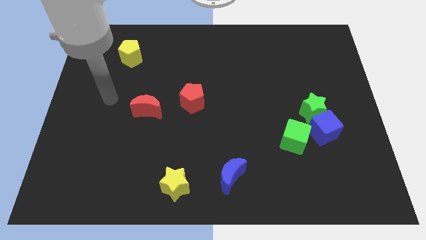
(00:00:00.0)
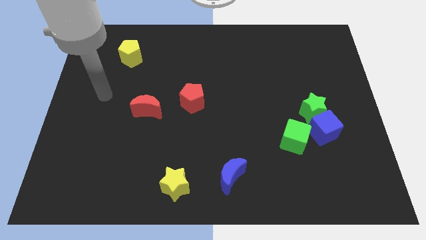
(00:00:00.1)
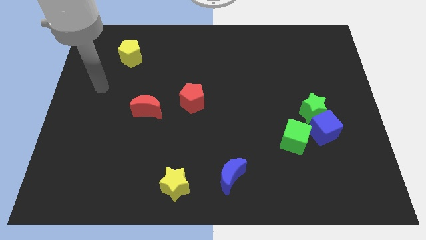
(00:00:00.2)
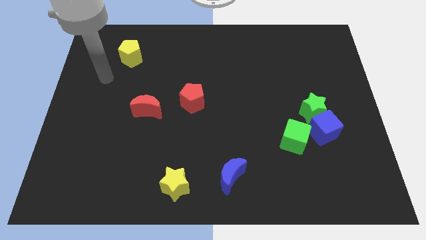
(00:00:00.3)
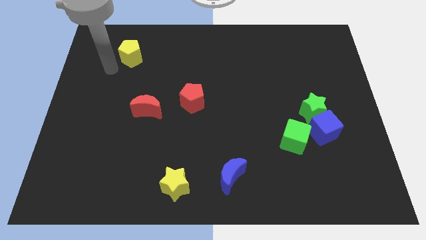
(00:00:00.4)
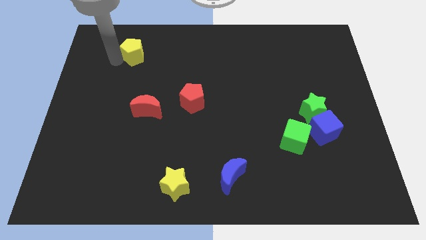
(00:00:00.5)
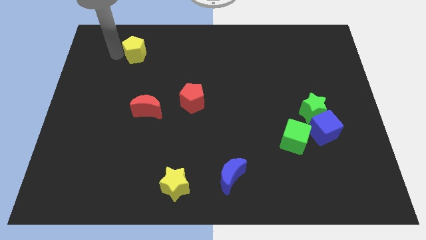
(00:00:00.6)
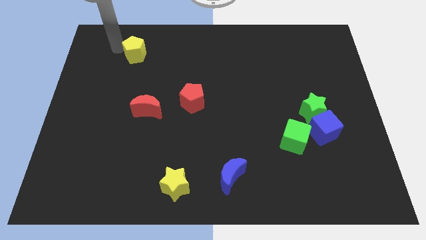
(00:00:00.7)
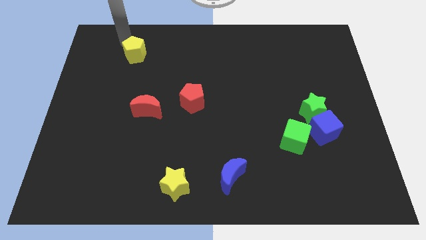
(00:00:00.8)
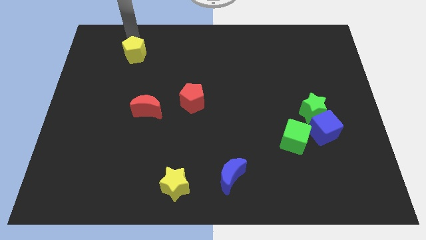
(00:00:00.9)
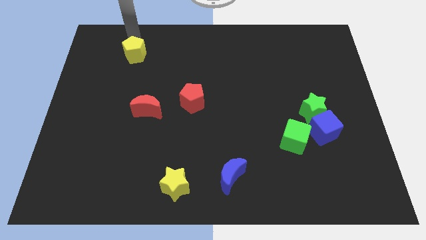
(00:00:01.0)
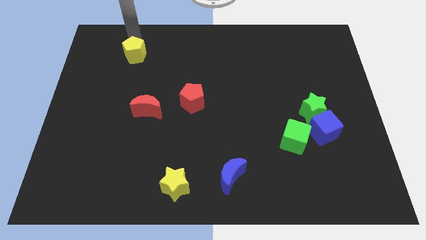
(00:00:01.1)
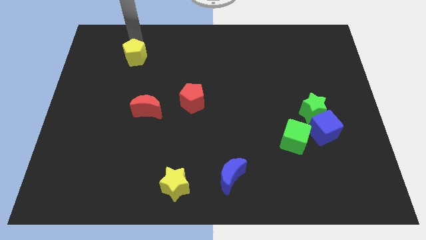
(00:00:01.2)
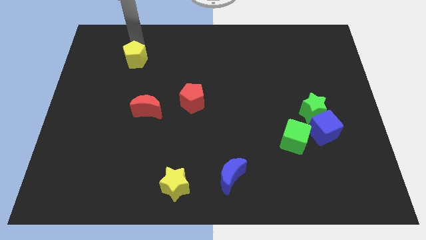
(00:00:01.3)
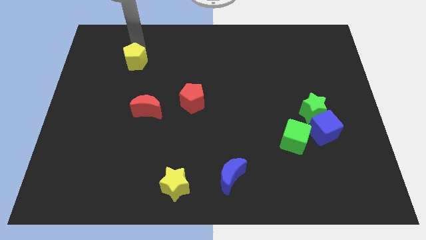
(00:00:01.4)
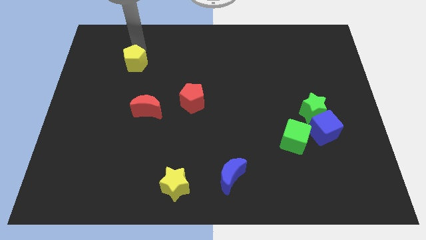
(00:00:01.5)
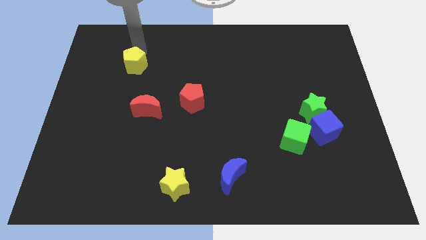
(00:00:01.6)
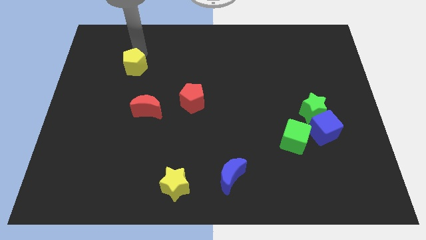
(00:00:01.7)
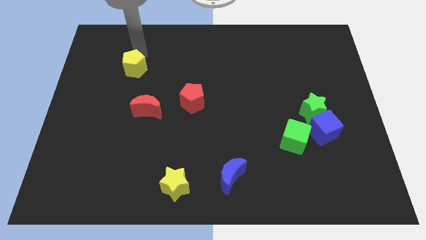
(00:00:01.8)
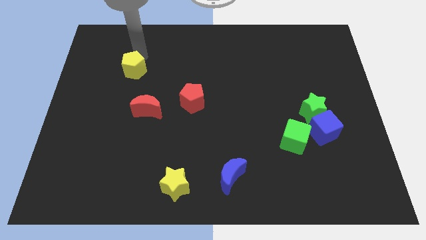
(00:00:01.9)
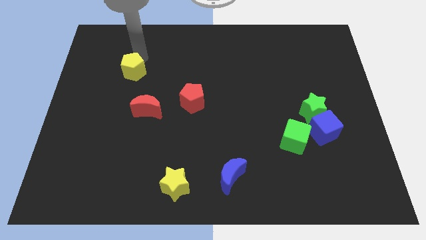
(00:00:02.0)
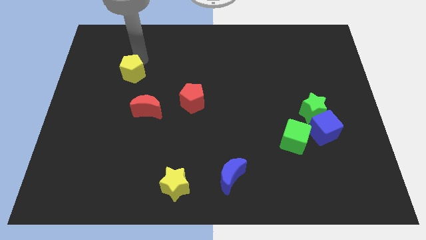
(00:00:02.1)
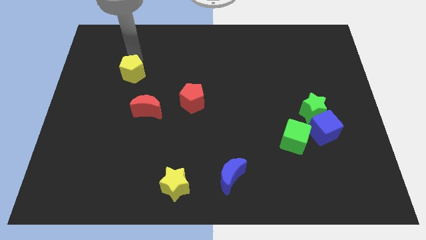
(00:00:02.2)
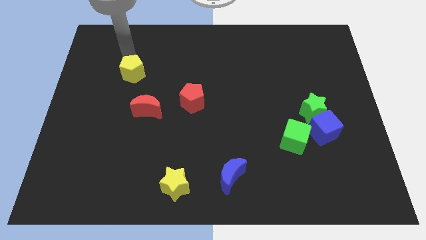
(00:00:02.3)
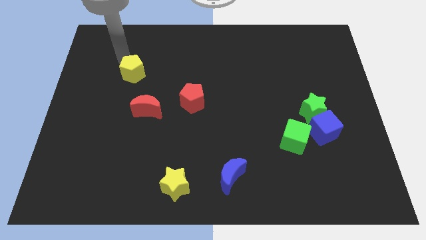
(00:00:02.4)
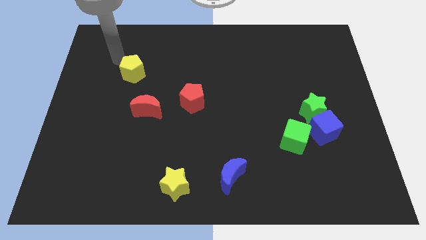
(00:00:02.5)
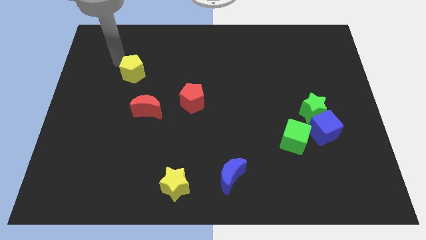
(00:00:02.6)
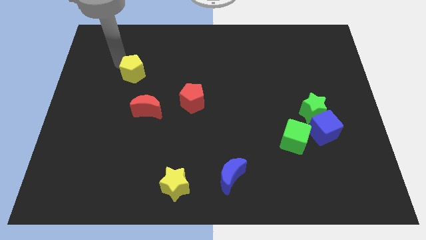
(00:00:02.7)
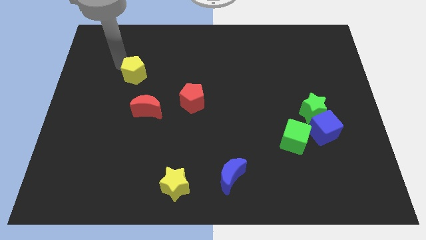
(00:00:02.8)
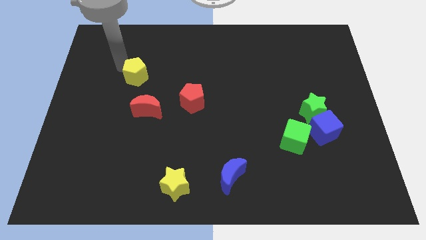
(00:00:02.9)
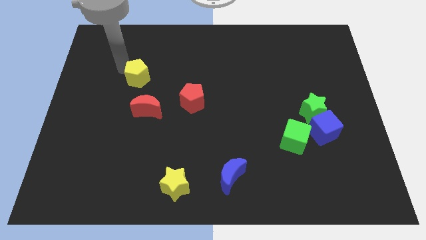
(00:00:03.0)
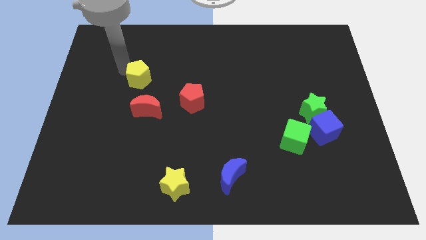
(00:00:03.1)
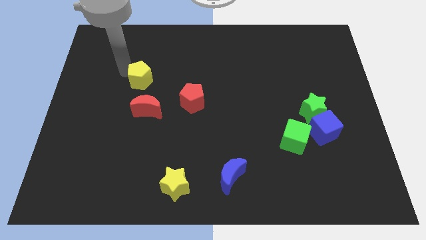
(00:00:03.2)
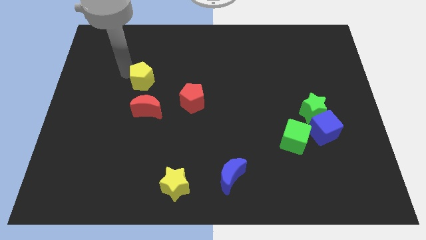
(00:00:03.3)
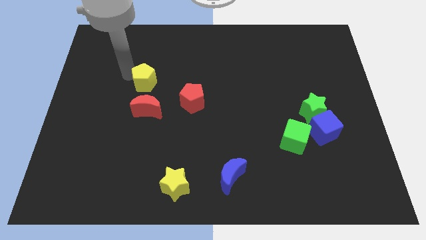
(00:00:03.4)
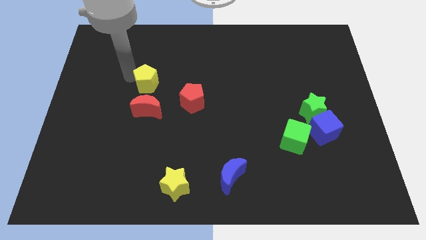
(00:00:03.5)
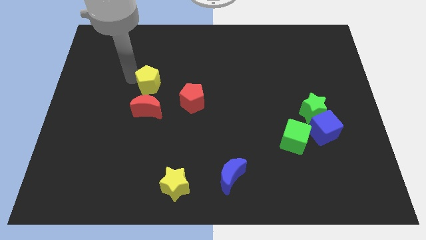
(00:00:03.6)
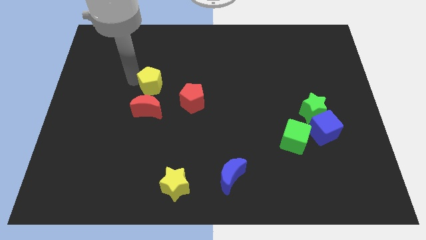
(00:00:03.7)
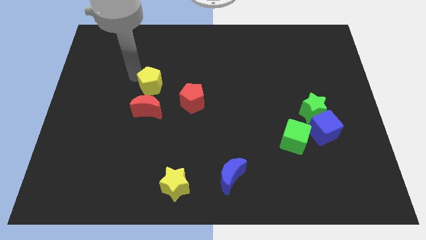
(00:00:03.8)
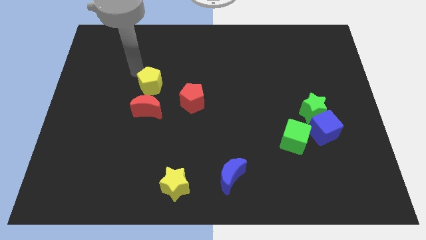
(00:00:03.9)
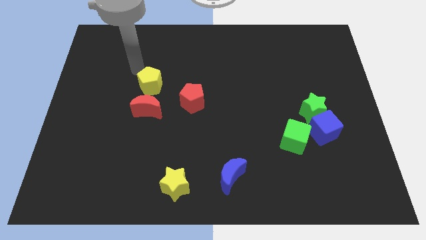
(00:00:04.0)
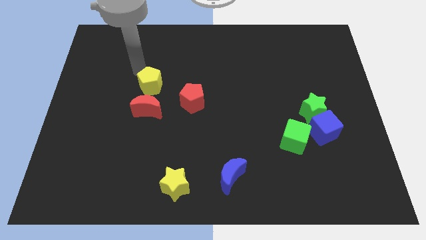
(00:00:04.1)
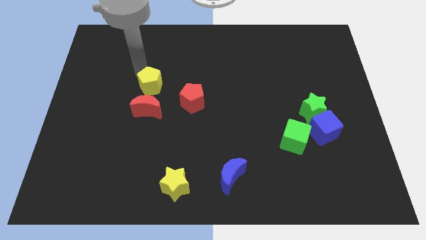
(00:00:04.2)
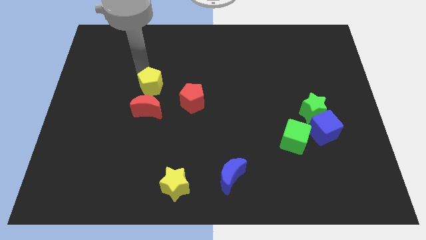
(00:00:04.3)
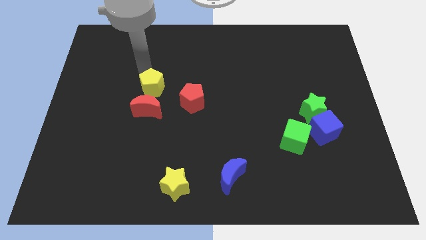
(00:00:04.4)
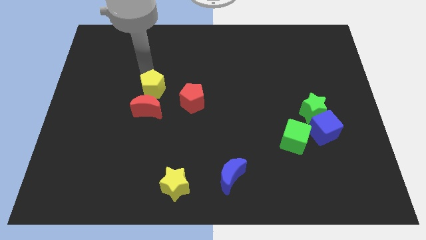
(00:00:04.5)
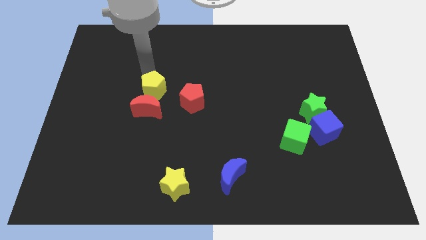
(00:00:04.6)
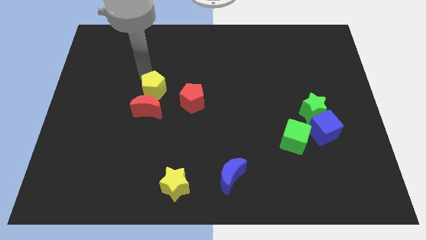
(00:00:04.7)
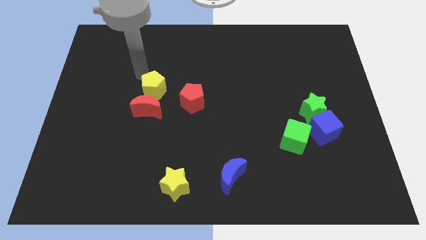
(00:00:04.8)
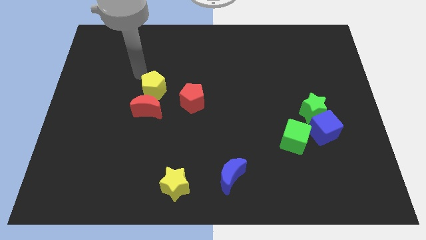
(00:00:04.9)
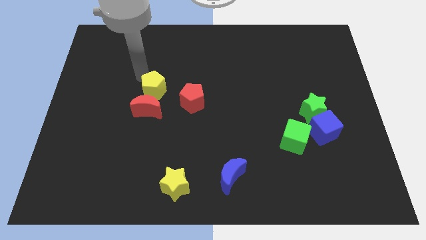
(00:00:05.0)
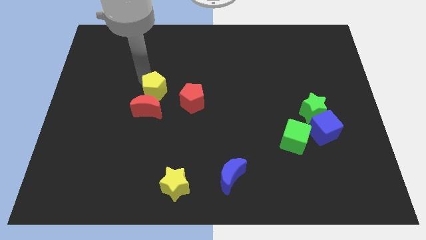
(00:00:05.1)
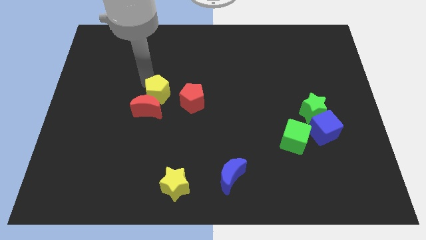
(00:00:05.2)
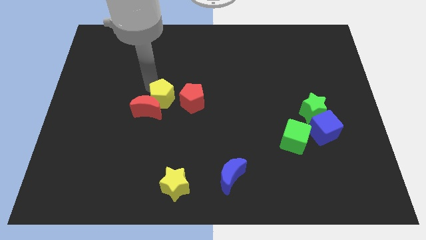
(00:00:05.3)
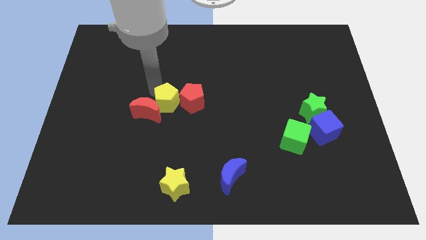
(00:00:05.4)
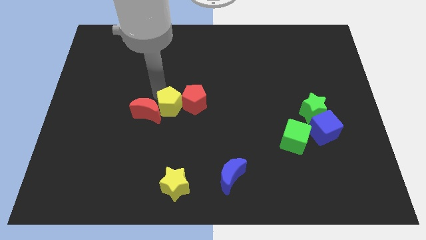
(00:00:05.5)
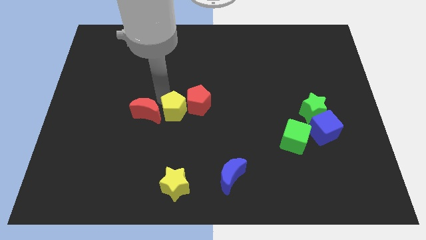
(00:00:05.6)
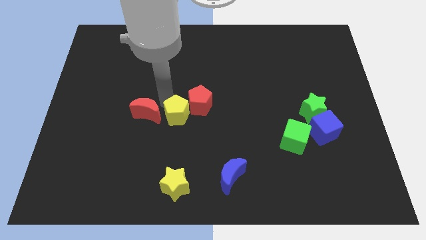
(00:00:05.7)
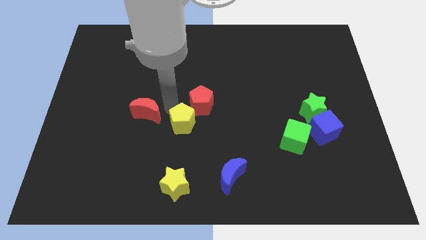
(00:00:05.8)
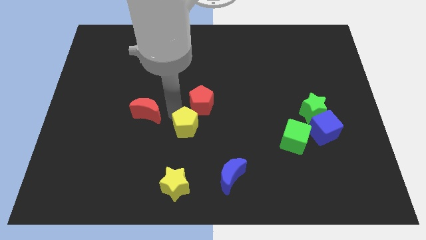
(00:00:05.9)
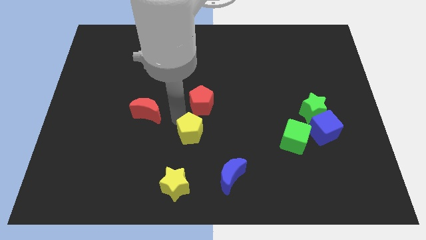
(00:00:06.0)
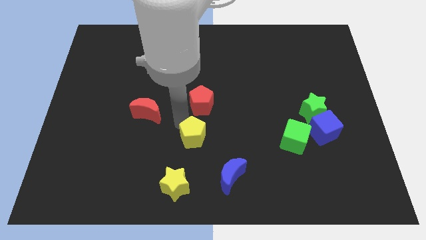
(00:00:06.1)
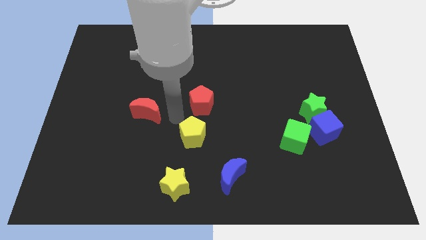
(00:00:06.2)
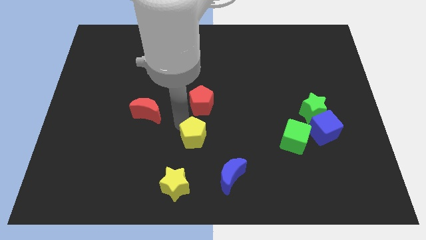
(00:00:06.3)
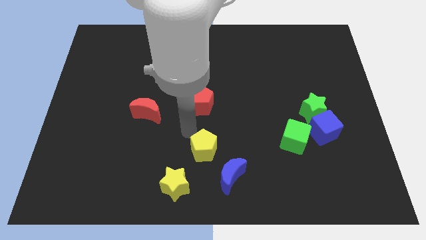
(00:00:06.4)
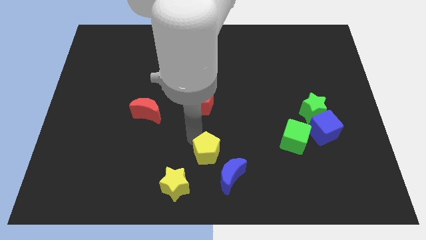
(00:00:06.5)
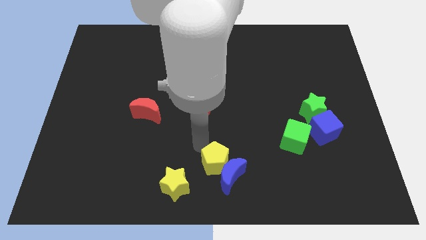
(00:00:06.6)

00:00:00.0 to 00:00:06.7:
slide the yellow pentagon to the blue moon

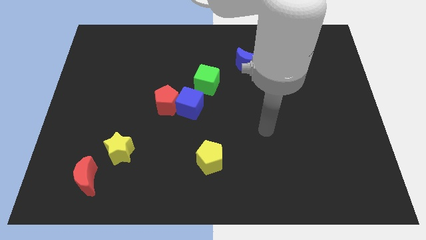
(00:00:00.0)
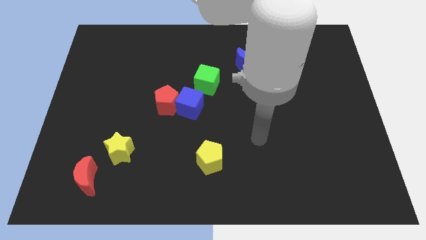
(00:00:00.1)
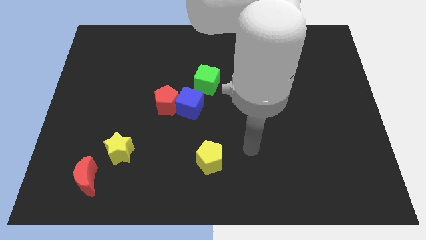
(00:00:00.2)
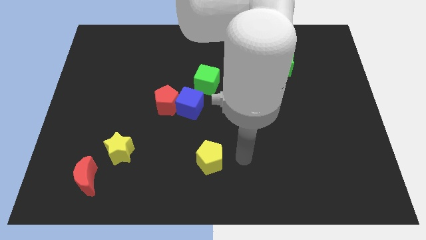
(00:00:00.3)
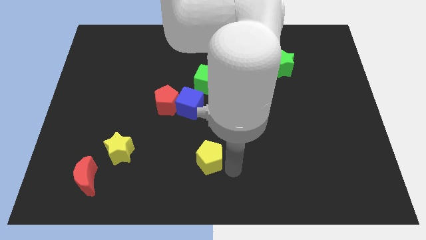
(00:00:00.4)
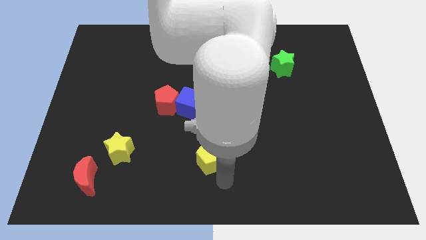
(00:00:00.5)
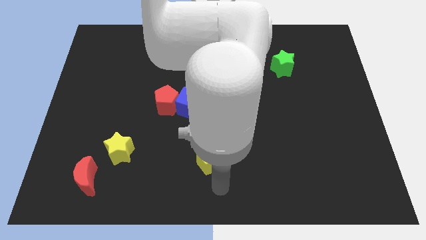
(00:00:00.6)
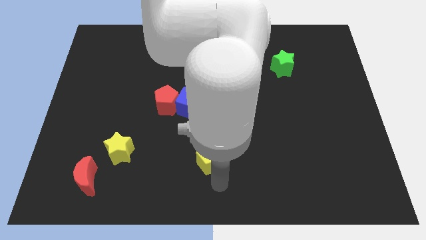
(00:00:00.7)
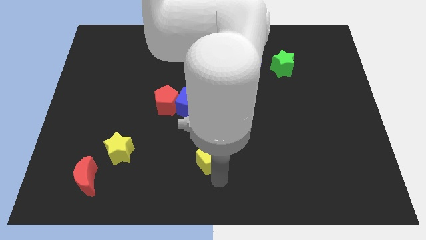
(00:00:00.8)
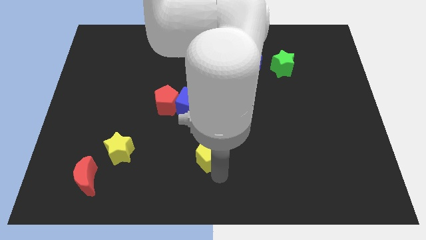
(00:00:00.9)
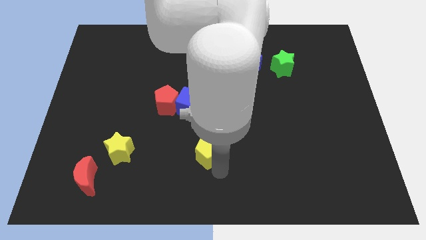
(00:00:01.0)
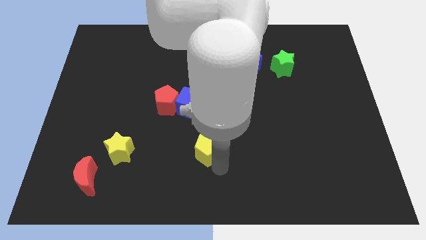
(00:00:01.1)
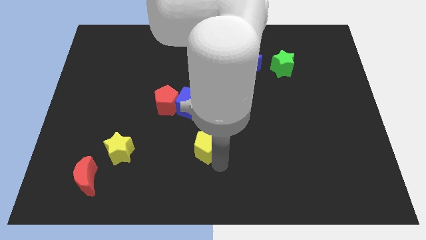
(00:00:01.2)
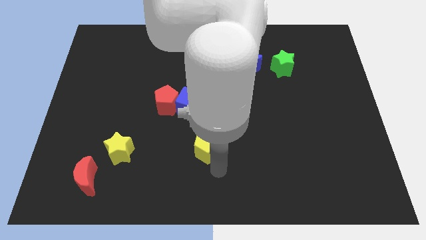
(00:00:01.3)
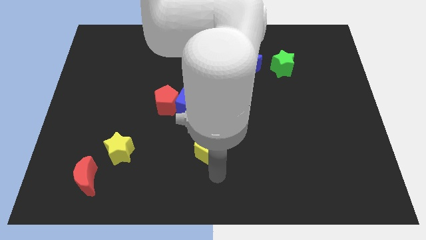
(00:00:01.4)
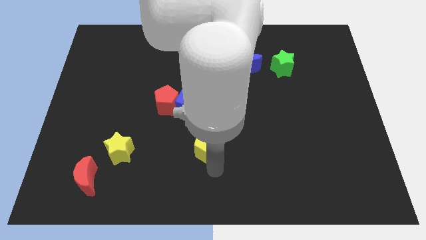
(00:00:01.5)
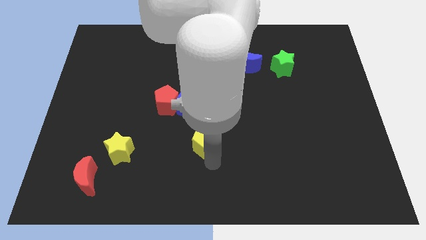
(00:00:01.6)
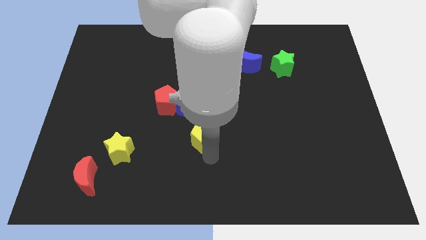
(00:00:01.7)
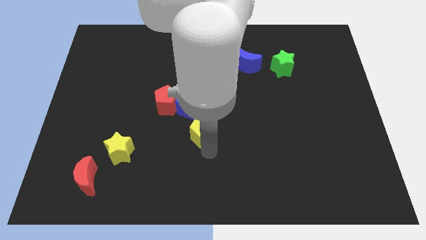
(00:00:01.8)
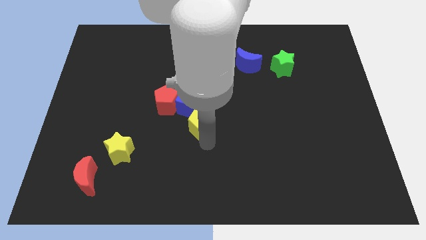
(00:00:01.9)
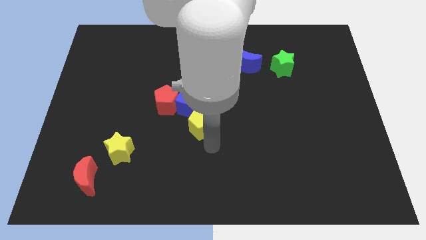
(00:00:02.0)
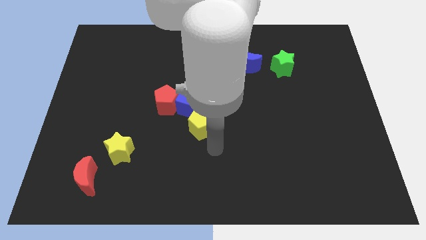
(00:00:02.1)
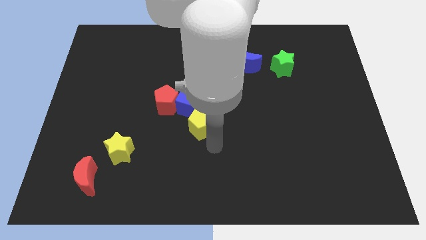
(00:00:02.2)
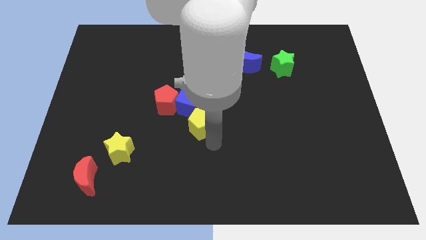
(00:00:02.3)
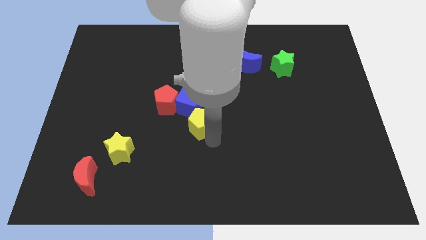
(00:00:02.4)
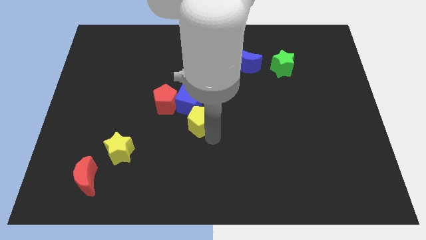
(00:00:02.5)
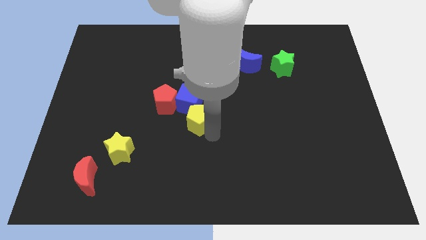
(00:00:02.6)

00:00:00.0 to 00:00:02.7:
push the yellow pentagon close to the blue cube
